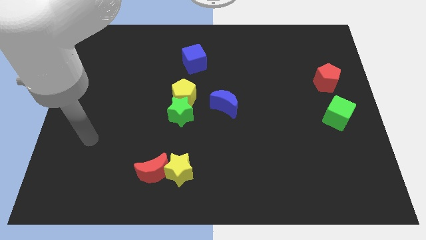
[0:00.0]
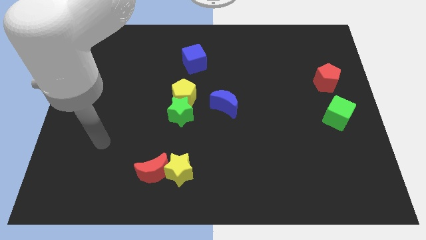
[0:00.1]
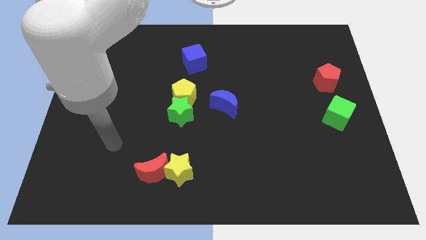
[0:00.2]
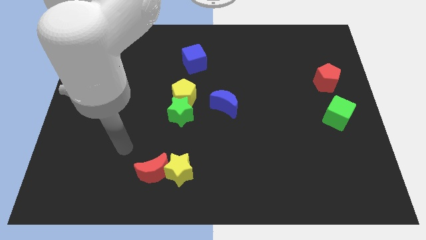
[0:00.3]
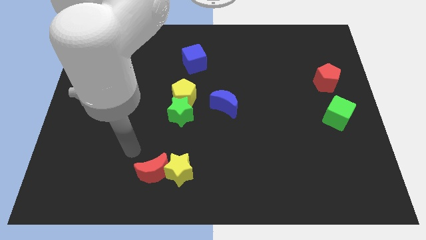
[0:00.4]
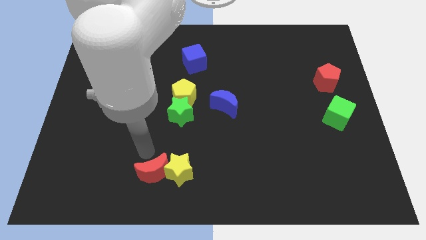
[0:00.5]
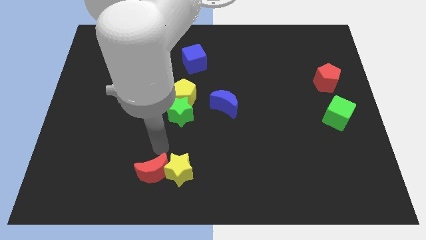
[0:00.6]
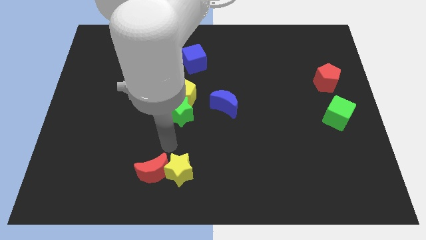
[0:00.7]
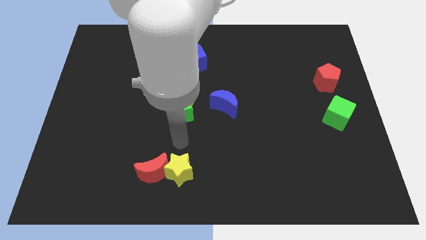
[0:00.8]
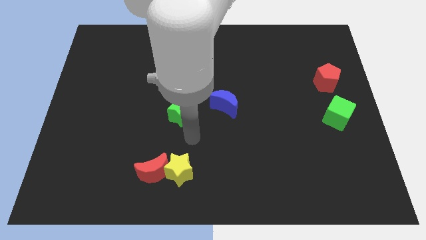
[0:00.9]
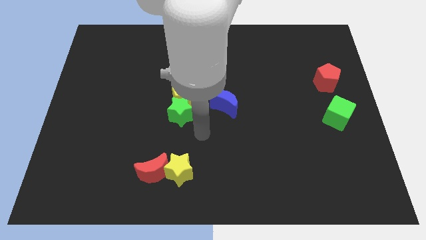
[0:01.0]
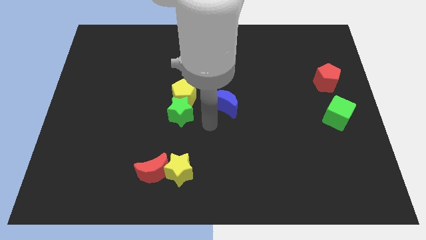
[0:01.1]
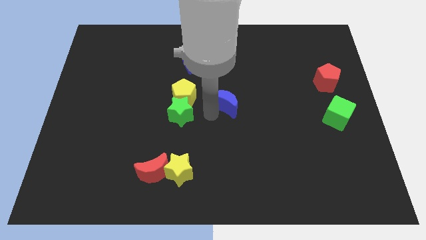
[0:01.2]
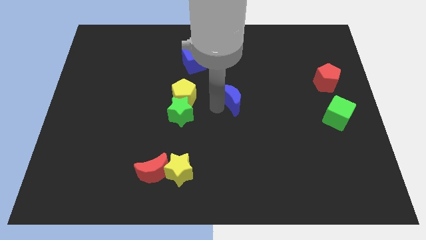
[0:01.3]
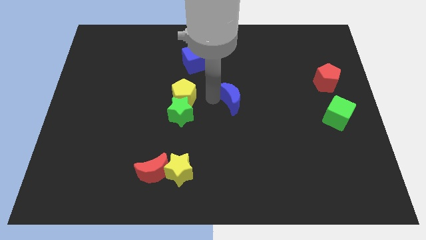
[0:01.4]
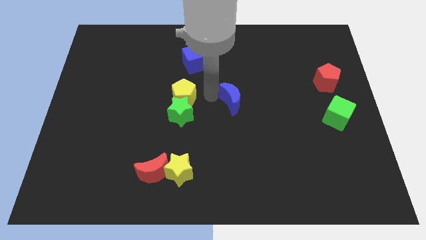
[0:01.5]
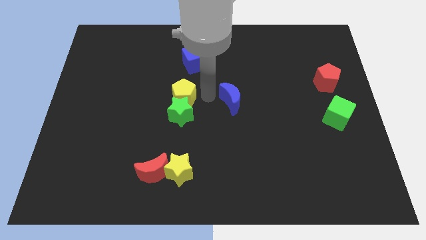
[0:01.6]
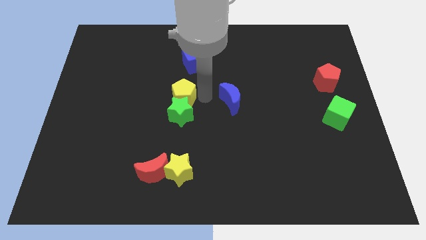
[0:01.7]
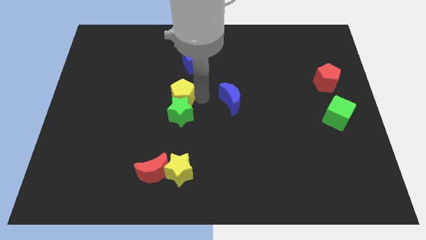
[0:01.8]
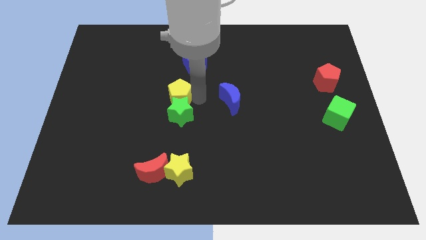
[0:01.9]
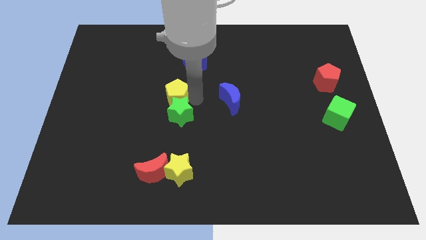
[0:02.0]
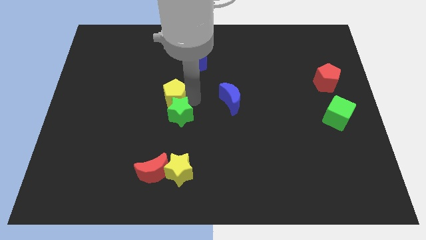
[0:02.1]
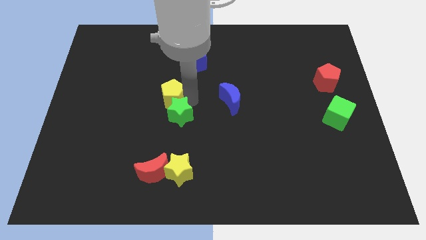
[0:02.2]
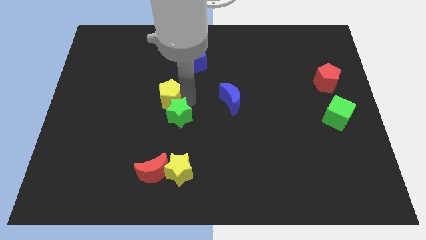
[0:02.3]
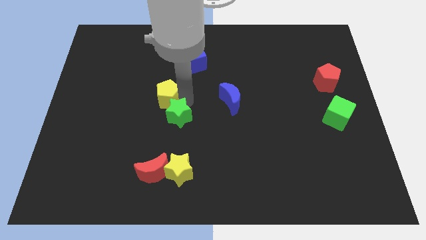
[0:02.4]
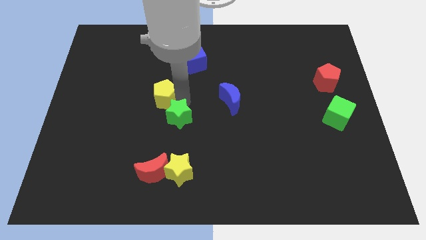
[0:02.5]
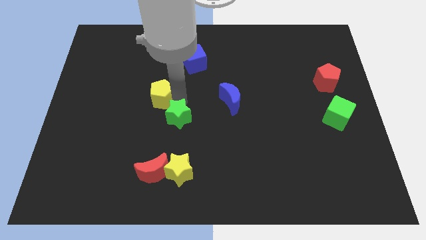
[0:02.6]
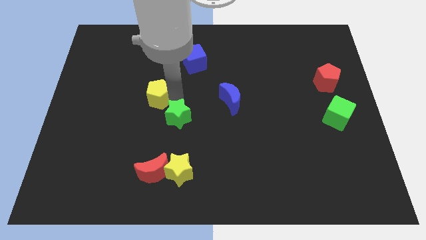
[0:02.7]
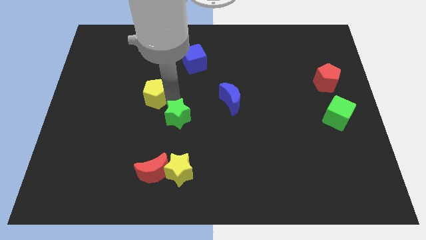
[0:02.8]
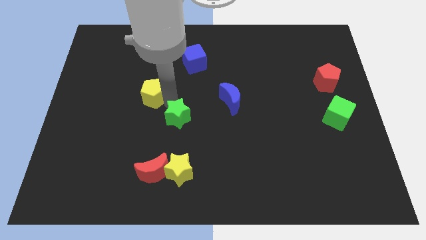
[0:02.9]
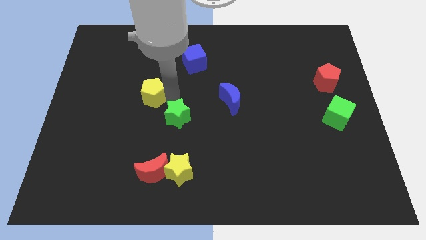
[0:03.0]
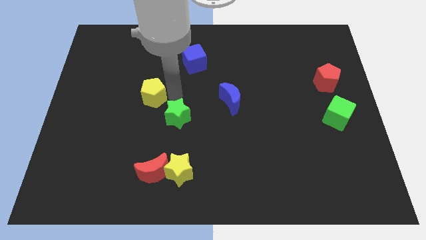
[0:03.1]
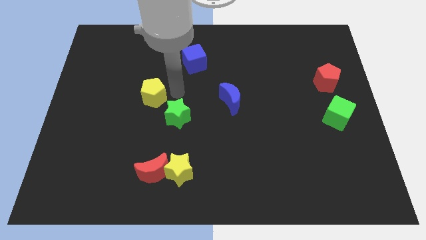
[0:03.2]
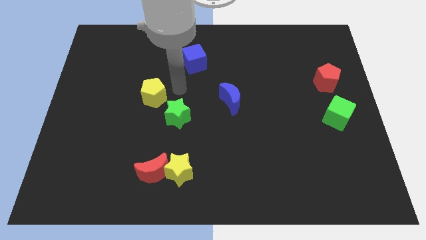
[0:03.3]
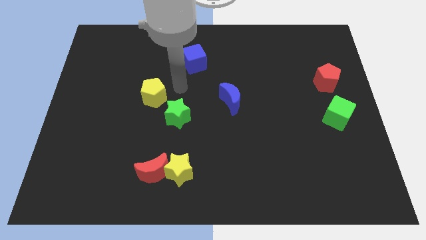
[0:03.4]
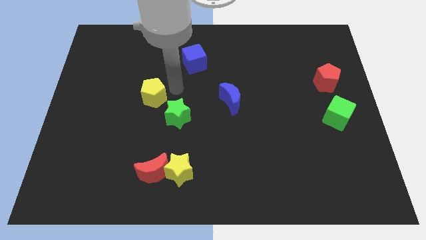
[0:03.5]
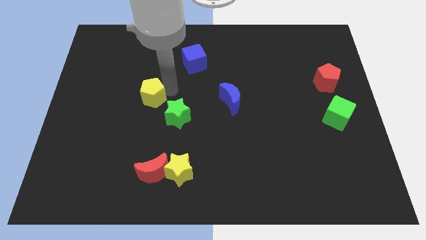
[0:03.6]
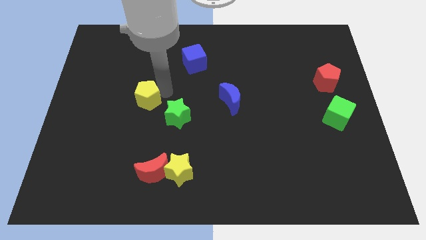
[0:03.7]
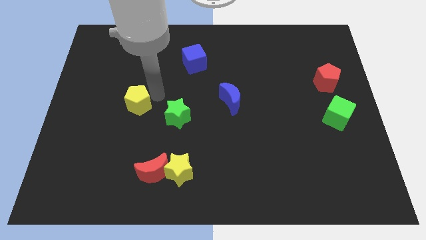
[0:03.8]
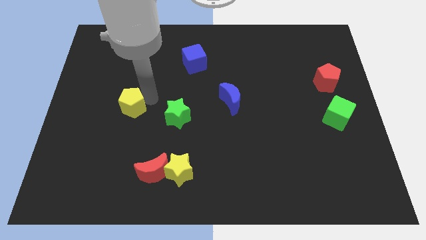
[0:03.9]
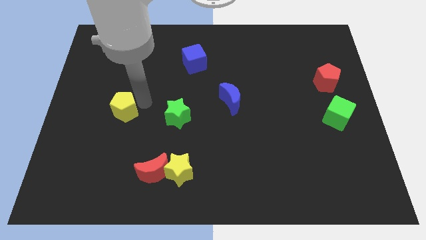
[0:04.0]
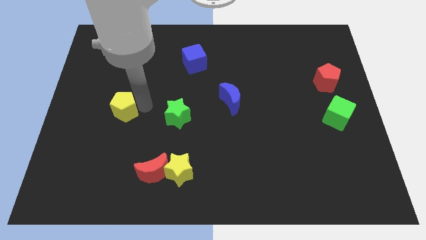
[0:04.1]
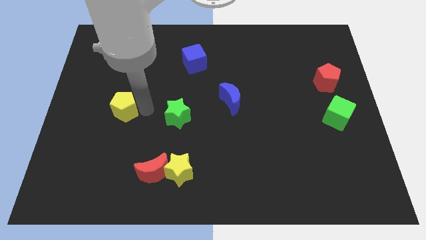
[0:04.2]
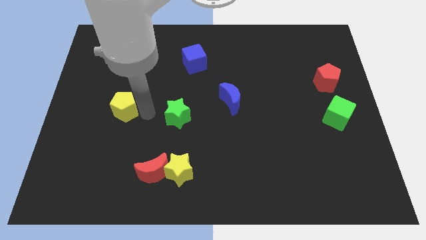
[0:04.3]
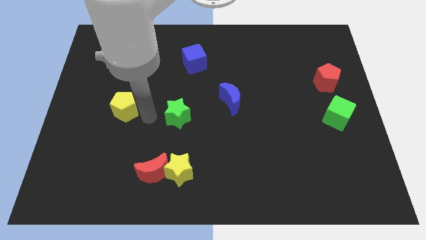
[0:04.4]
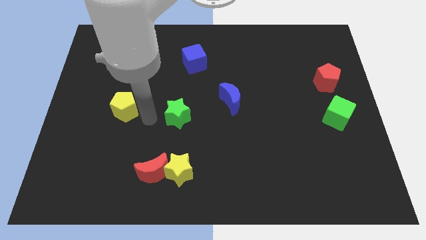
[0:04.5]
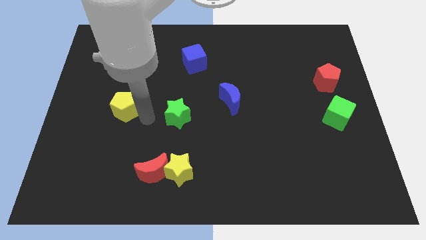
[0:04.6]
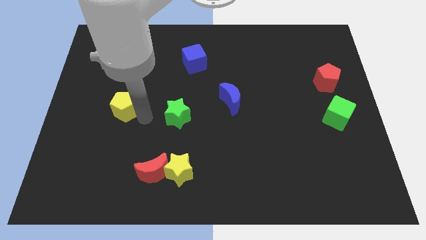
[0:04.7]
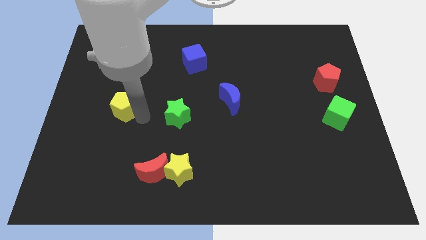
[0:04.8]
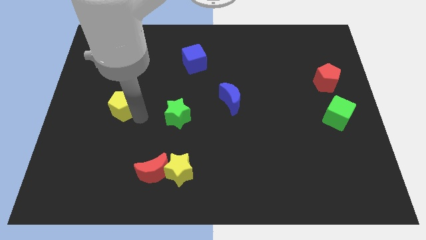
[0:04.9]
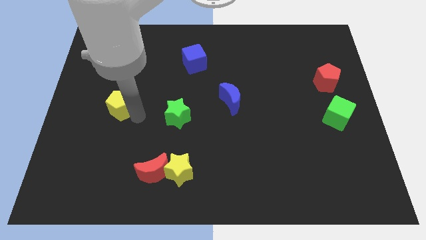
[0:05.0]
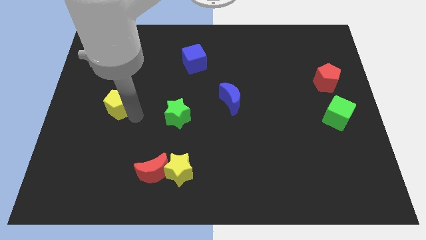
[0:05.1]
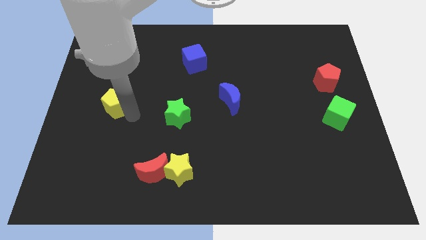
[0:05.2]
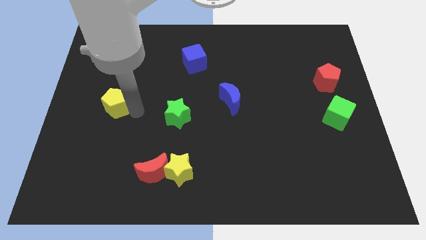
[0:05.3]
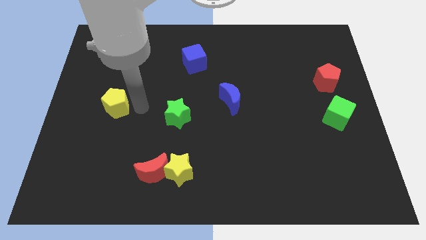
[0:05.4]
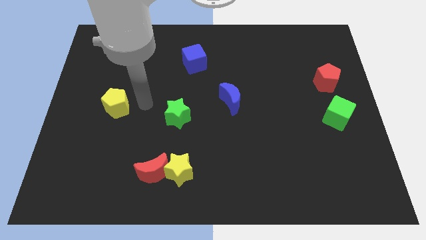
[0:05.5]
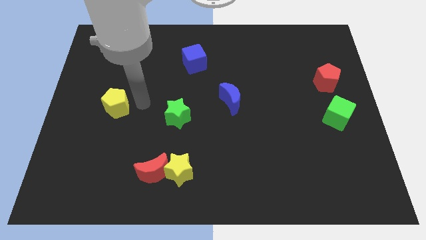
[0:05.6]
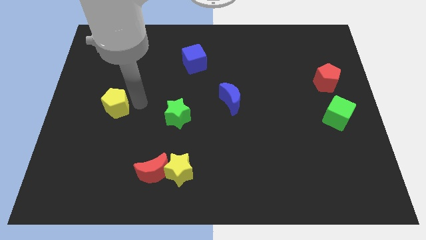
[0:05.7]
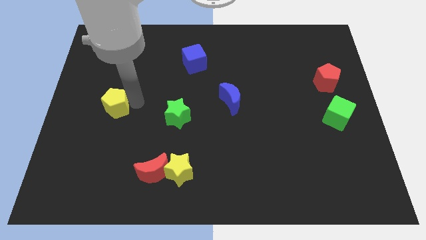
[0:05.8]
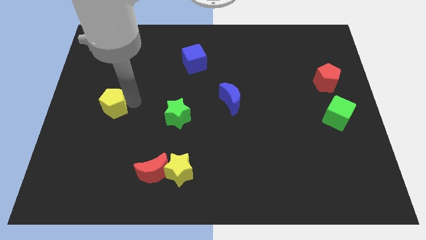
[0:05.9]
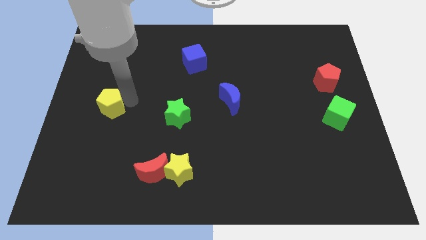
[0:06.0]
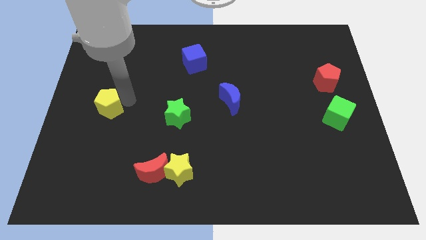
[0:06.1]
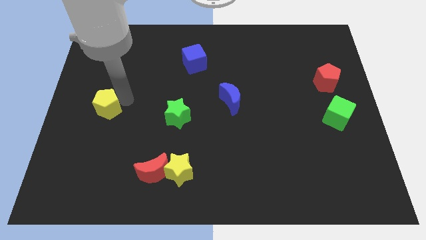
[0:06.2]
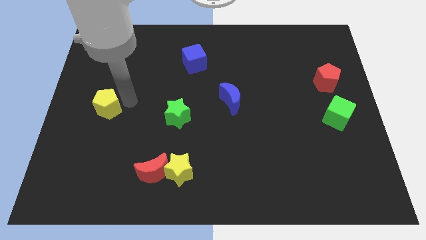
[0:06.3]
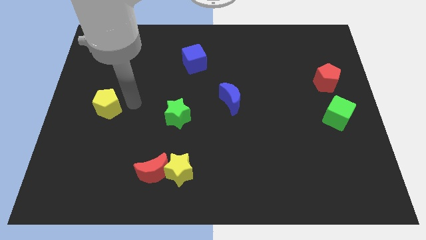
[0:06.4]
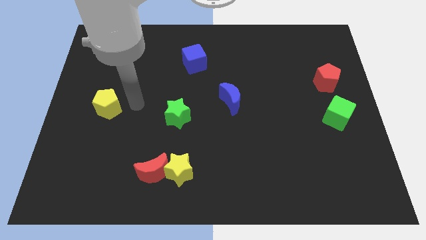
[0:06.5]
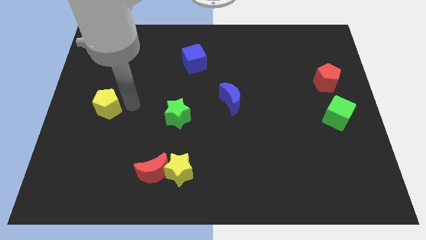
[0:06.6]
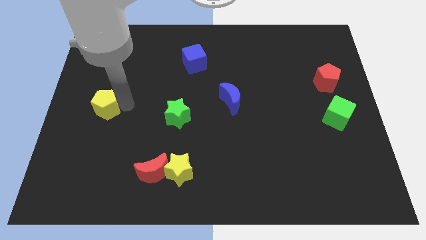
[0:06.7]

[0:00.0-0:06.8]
move the yellow pentagon to the left side of the board
